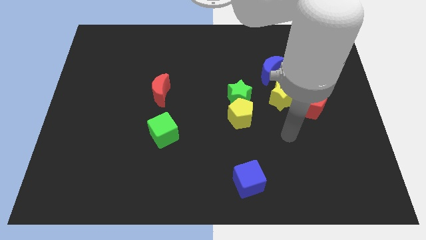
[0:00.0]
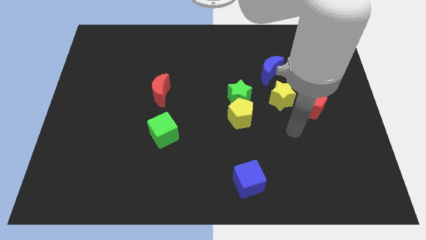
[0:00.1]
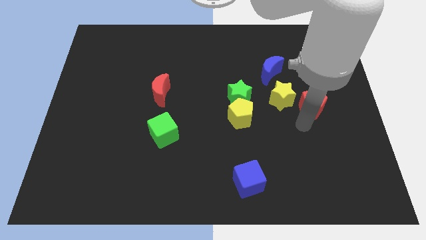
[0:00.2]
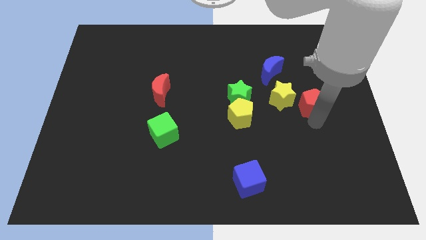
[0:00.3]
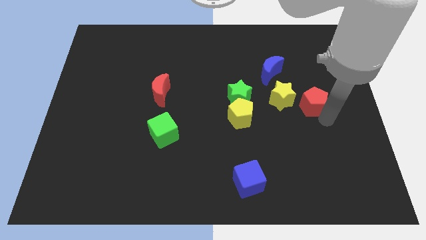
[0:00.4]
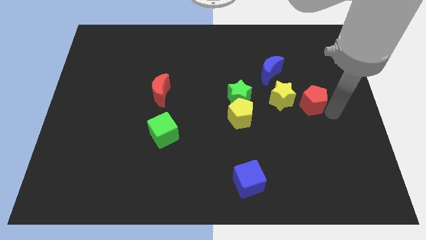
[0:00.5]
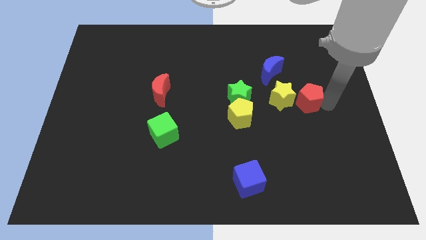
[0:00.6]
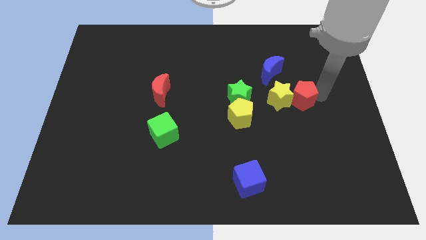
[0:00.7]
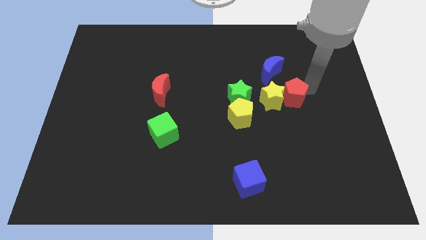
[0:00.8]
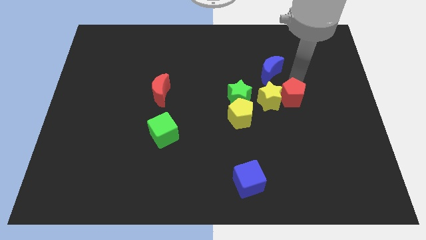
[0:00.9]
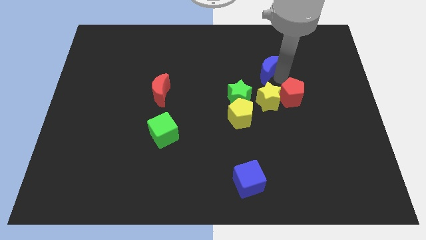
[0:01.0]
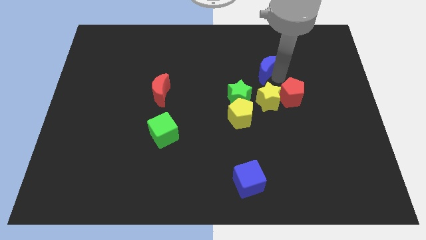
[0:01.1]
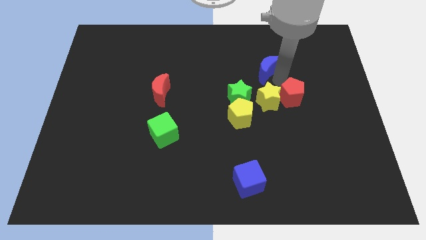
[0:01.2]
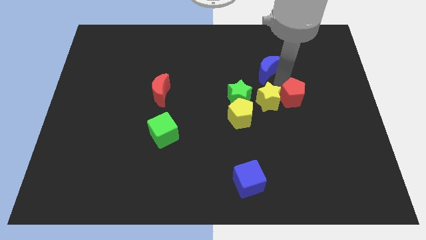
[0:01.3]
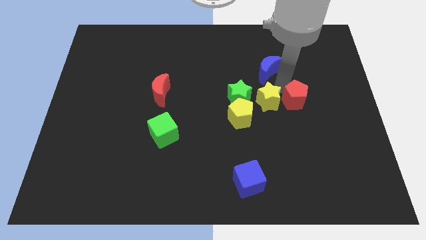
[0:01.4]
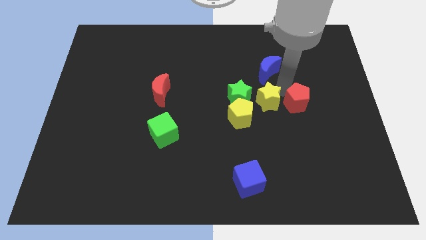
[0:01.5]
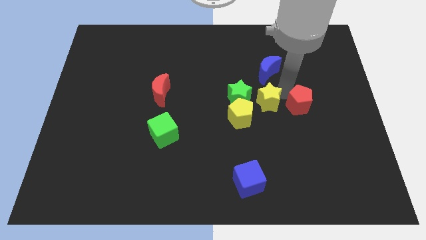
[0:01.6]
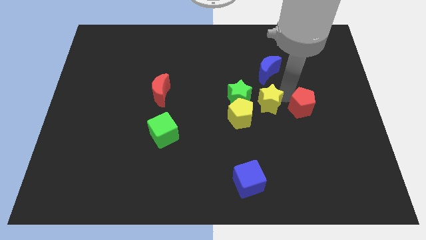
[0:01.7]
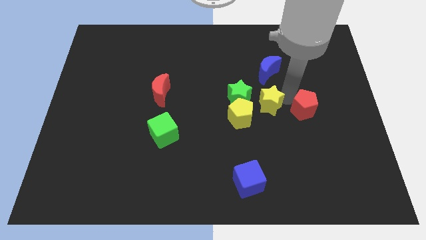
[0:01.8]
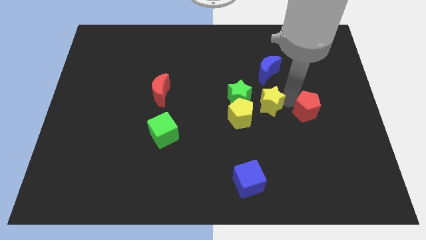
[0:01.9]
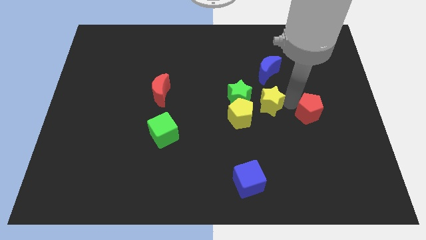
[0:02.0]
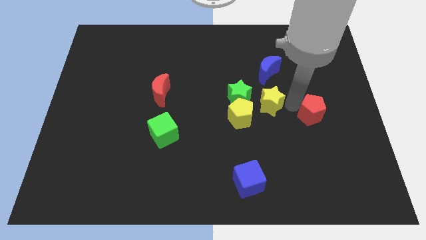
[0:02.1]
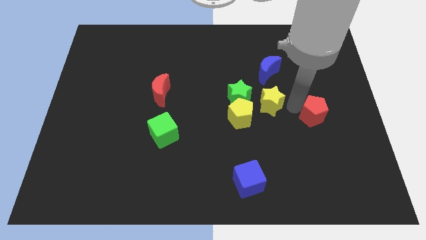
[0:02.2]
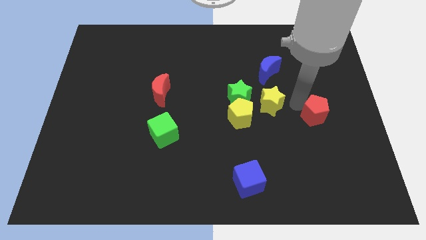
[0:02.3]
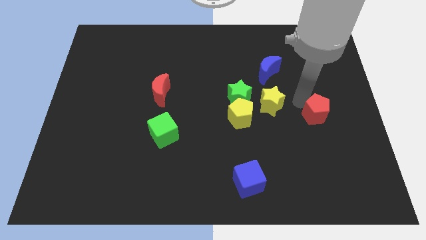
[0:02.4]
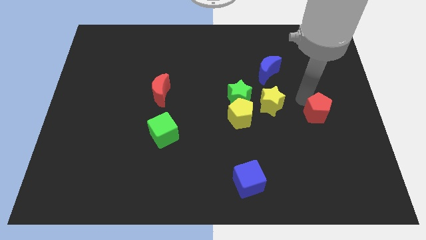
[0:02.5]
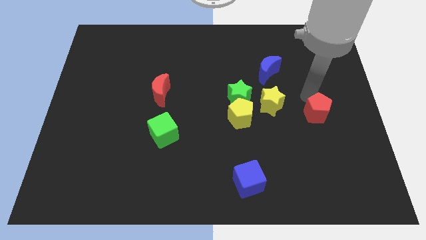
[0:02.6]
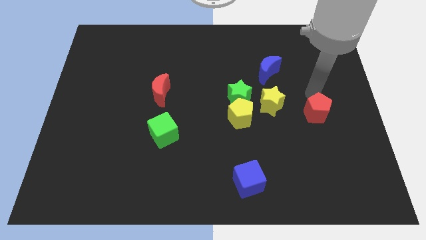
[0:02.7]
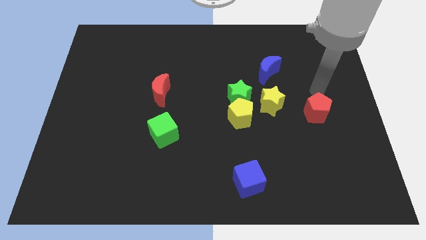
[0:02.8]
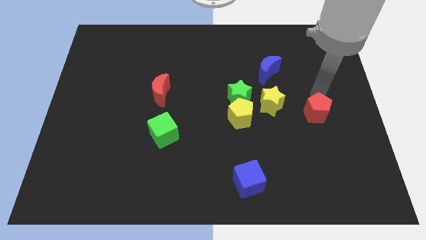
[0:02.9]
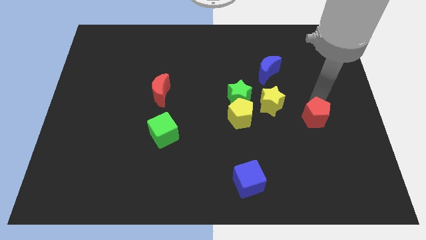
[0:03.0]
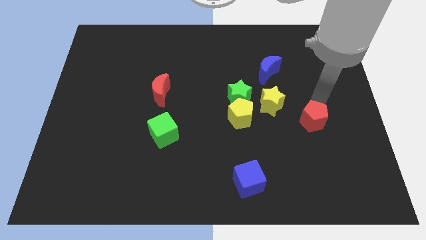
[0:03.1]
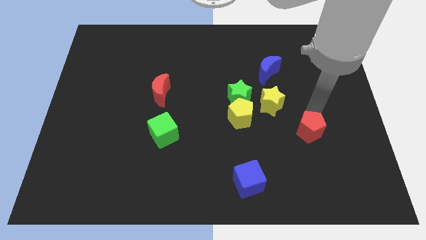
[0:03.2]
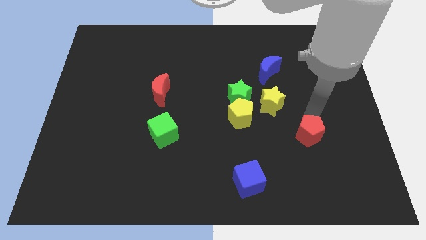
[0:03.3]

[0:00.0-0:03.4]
push the red pentagon downwards slightly

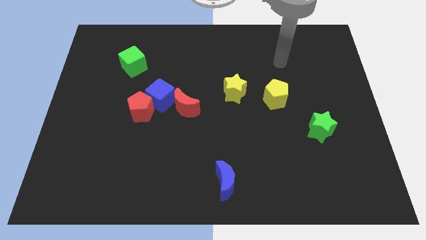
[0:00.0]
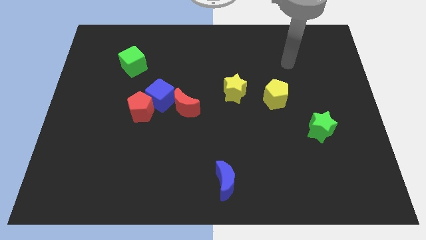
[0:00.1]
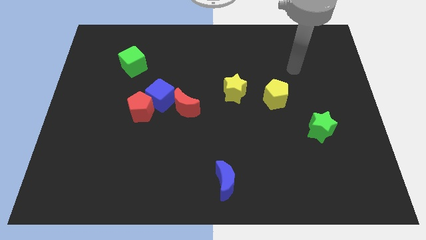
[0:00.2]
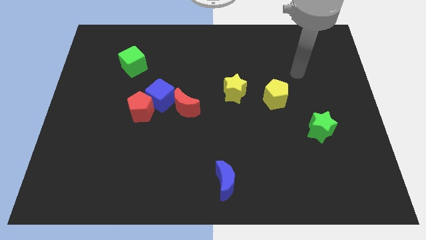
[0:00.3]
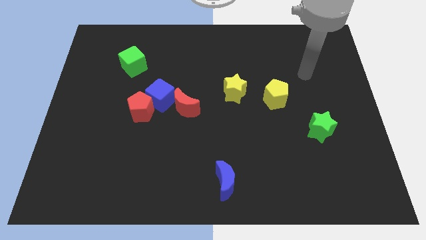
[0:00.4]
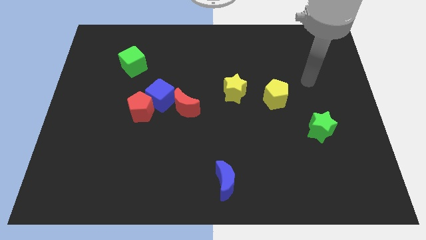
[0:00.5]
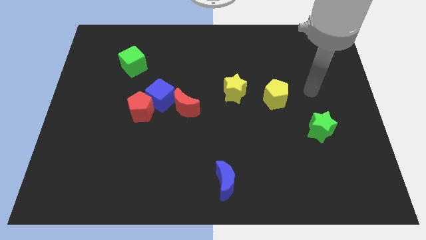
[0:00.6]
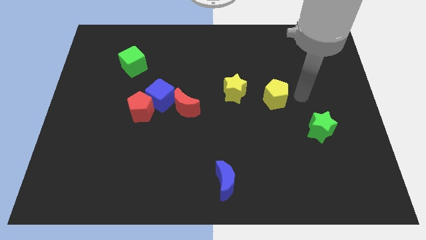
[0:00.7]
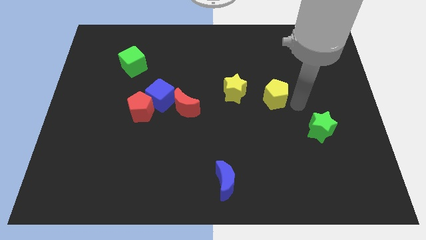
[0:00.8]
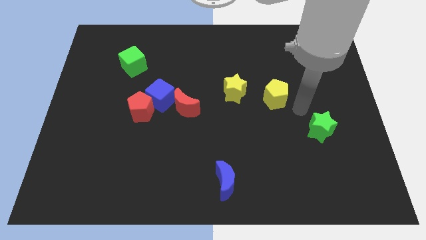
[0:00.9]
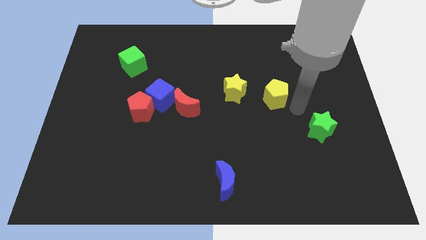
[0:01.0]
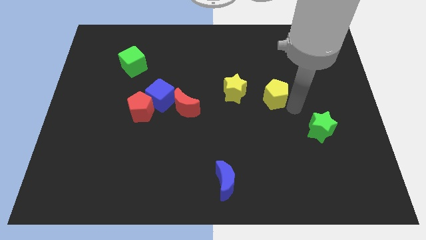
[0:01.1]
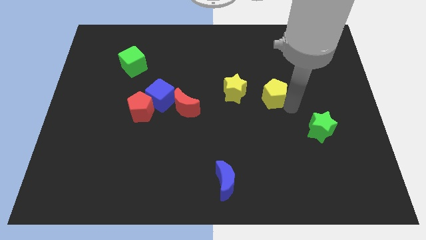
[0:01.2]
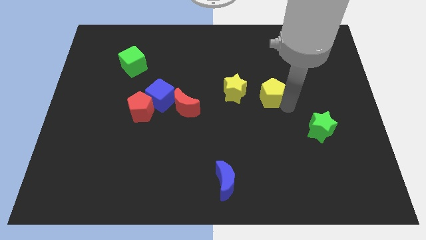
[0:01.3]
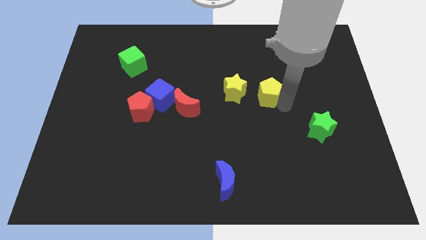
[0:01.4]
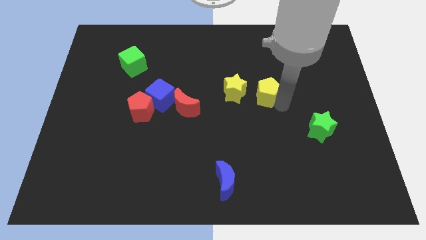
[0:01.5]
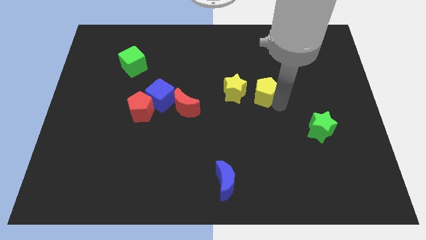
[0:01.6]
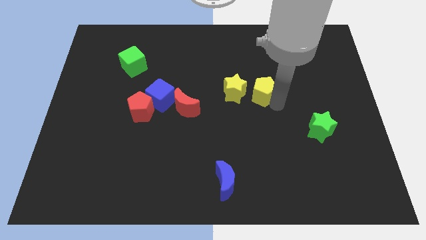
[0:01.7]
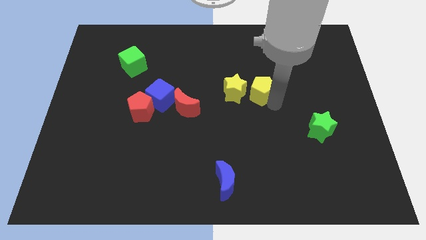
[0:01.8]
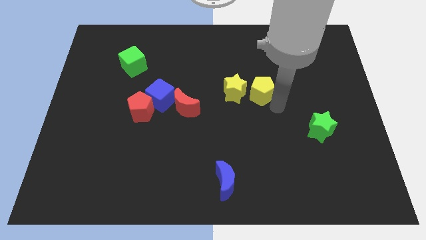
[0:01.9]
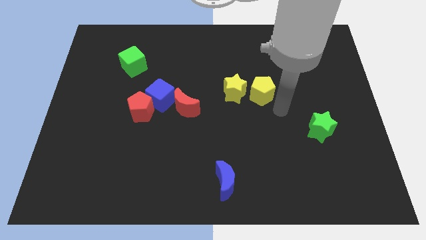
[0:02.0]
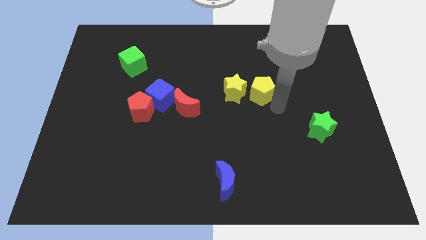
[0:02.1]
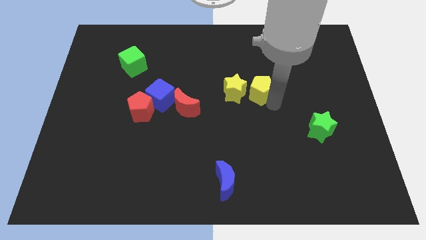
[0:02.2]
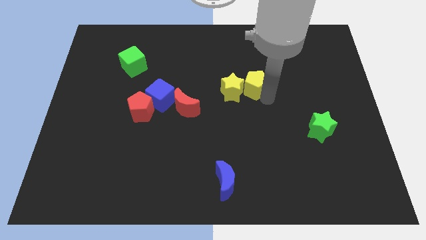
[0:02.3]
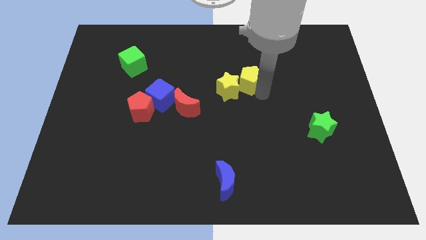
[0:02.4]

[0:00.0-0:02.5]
slightly move the yellow pentagon up and to the left diagonally

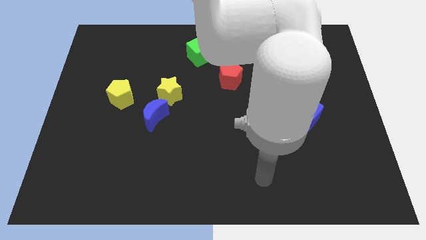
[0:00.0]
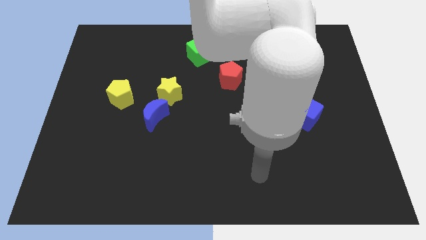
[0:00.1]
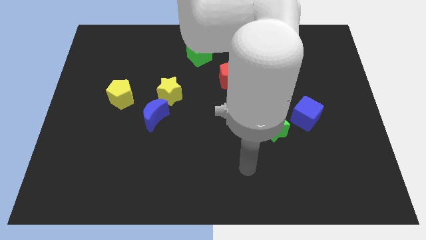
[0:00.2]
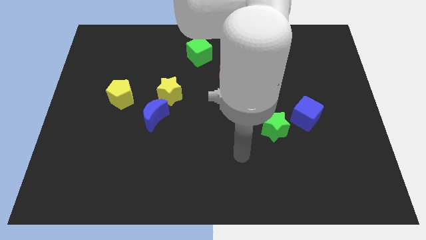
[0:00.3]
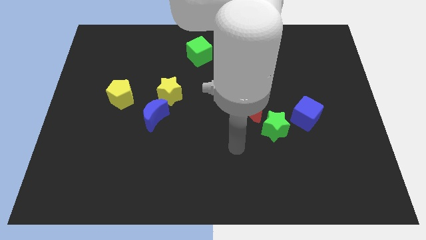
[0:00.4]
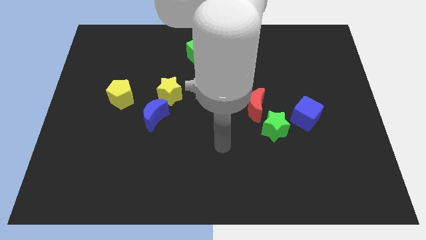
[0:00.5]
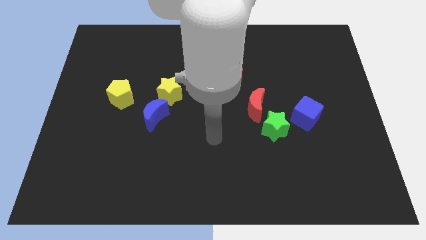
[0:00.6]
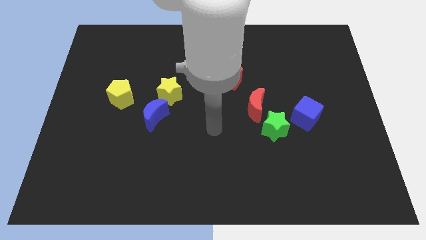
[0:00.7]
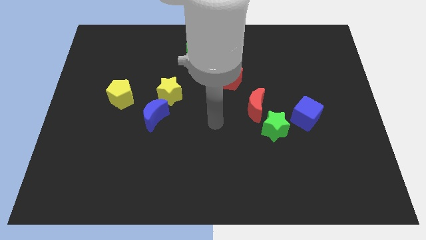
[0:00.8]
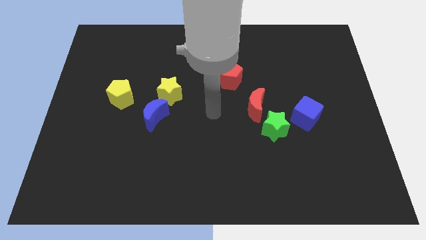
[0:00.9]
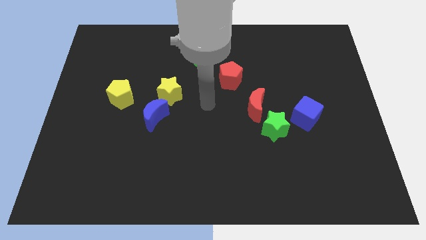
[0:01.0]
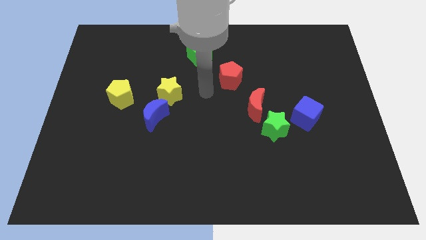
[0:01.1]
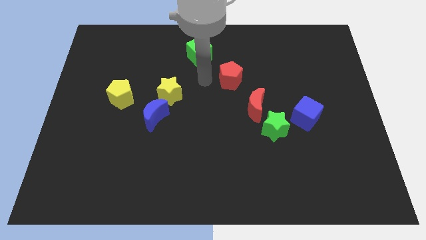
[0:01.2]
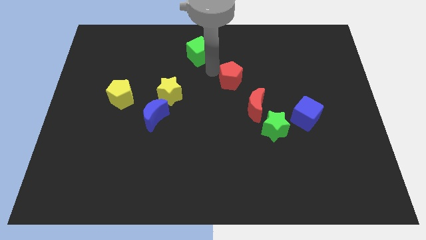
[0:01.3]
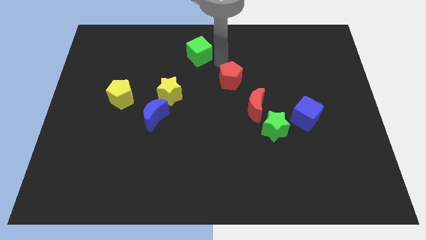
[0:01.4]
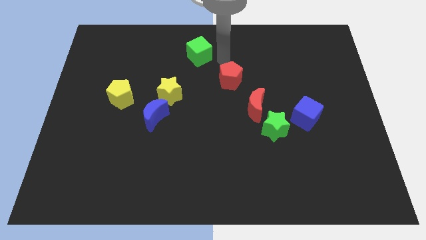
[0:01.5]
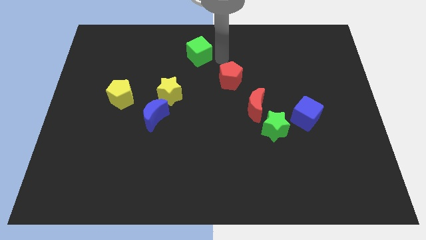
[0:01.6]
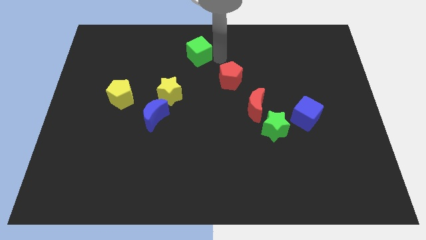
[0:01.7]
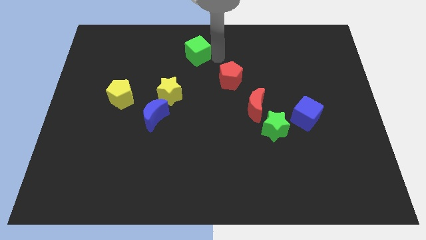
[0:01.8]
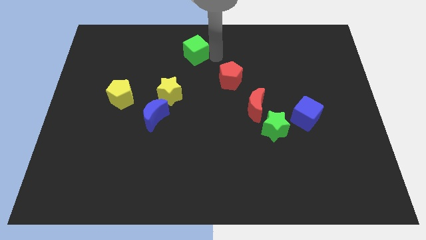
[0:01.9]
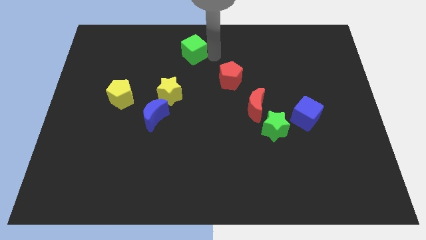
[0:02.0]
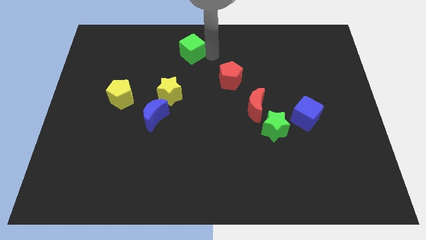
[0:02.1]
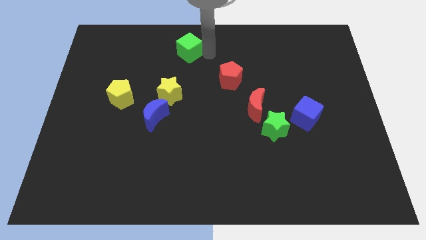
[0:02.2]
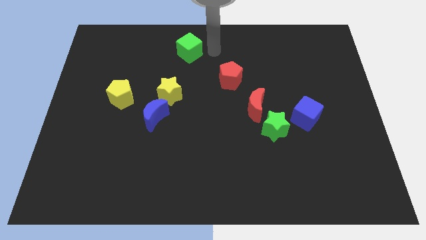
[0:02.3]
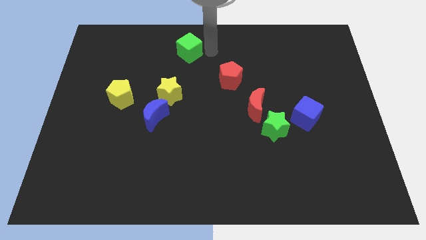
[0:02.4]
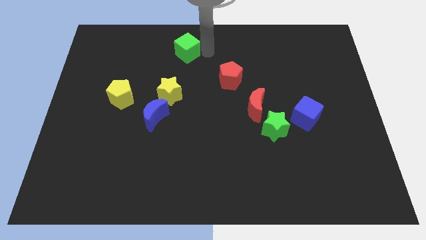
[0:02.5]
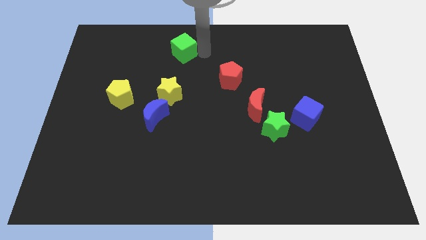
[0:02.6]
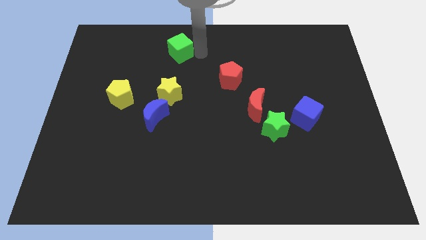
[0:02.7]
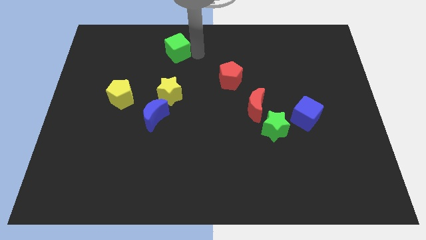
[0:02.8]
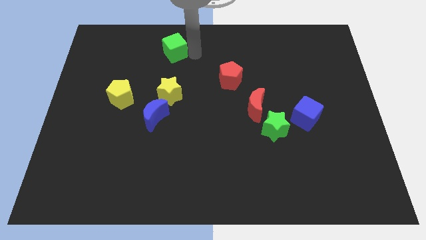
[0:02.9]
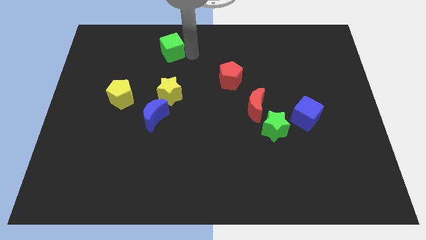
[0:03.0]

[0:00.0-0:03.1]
move the green cube to the left a little
